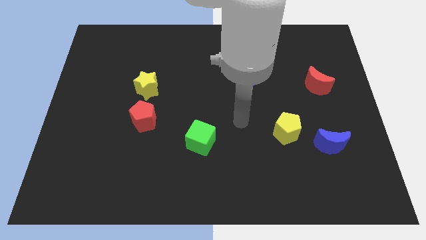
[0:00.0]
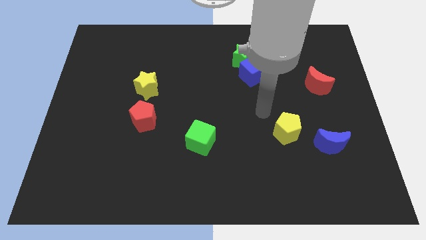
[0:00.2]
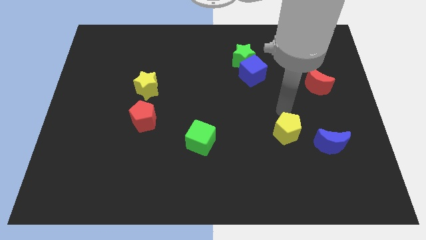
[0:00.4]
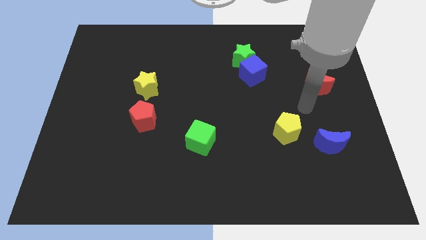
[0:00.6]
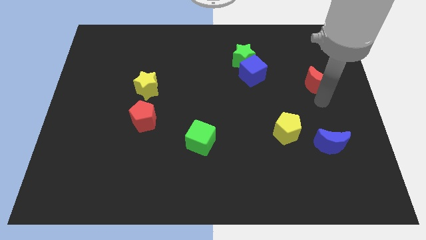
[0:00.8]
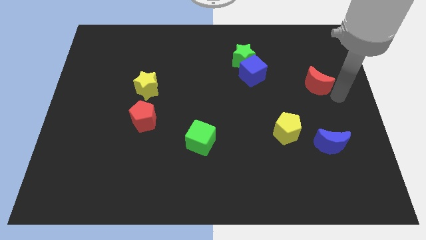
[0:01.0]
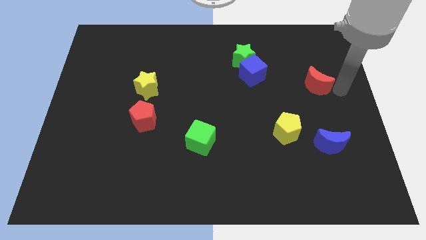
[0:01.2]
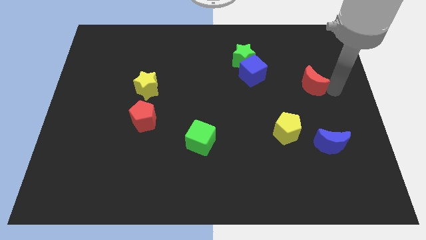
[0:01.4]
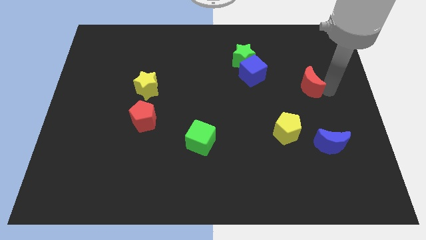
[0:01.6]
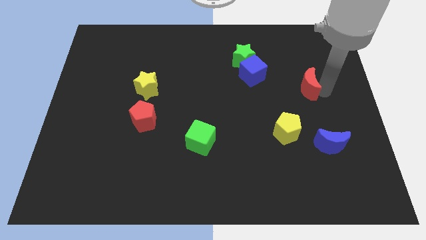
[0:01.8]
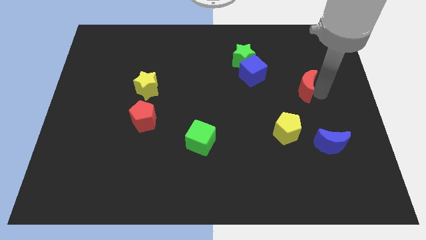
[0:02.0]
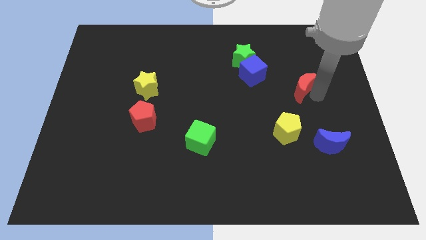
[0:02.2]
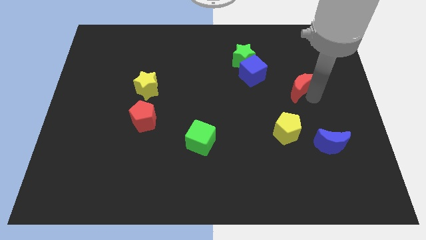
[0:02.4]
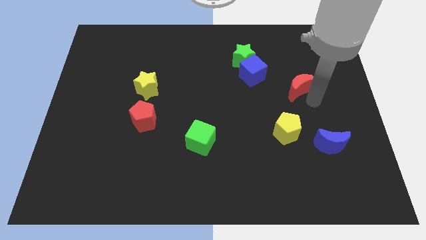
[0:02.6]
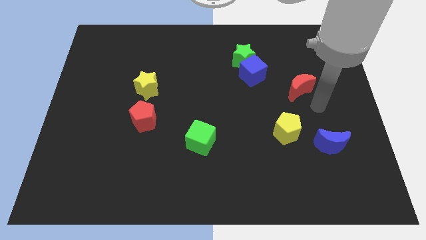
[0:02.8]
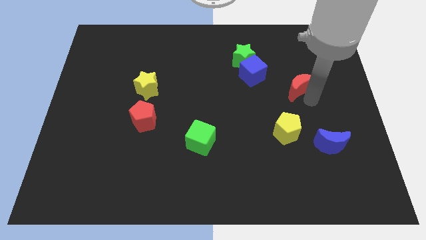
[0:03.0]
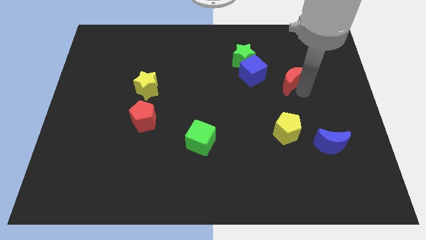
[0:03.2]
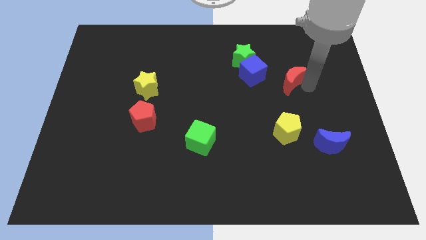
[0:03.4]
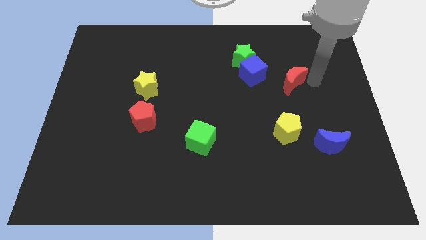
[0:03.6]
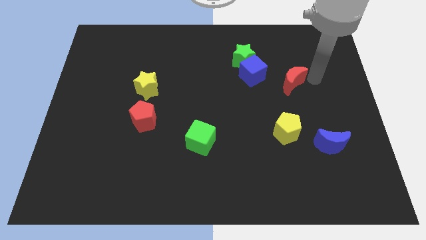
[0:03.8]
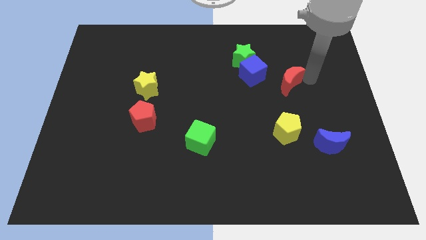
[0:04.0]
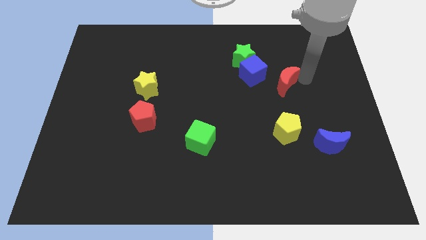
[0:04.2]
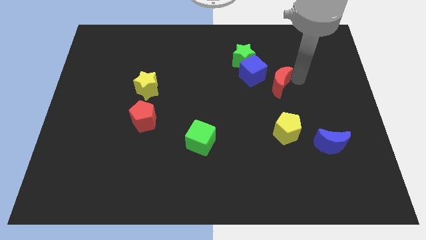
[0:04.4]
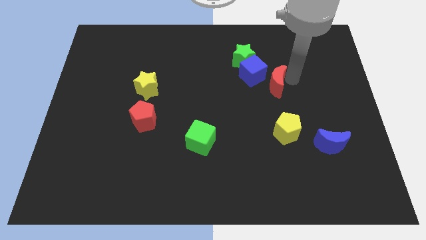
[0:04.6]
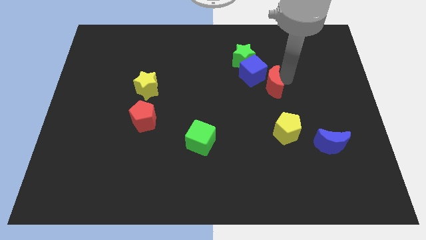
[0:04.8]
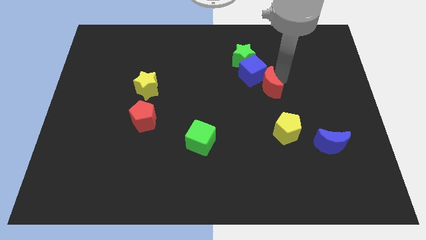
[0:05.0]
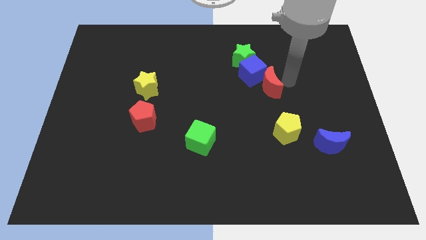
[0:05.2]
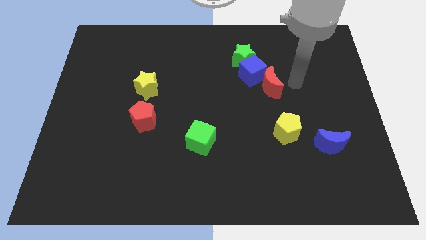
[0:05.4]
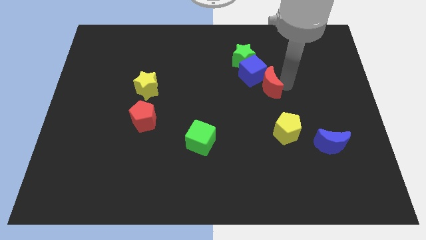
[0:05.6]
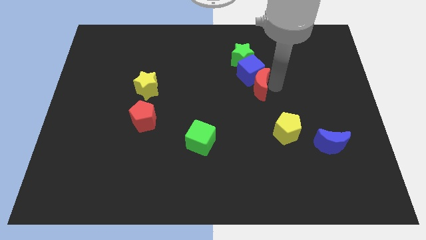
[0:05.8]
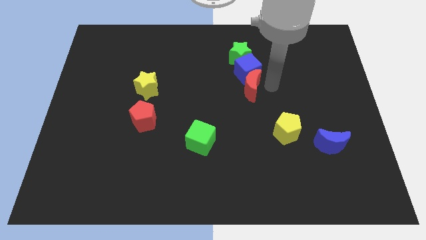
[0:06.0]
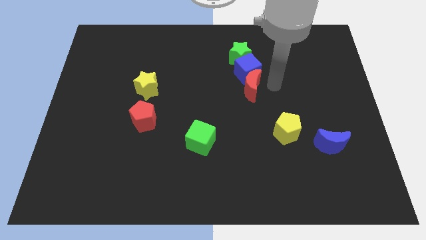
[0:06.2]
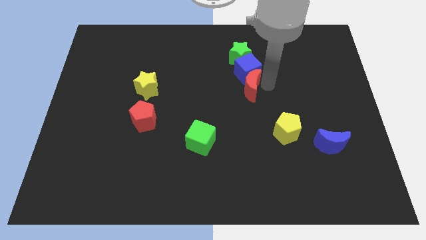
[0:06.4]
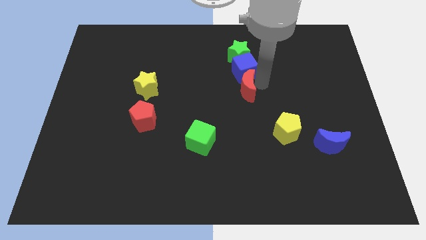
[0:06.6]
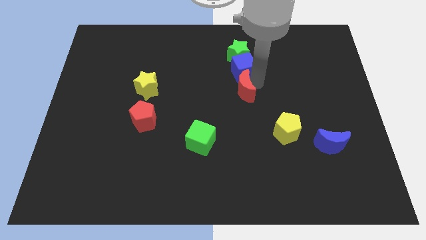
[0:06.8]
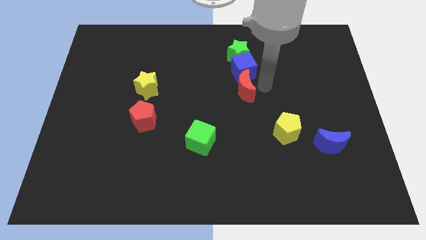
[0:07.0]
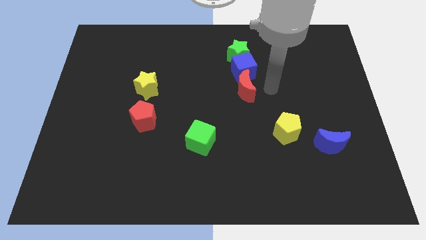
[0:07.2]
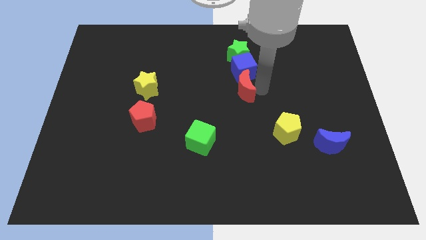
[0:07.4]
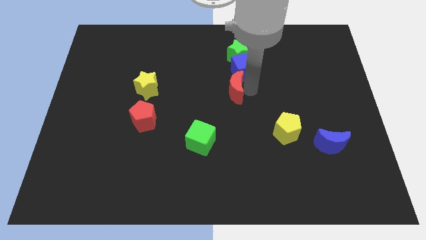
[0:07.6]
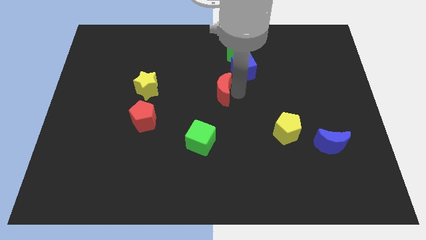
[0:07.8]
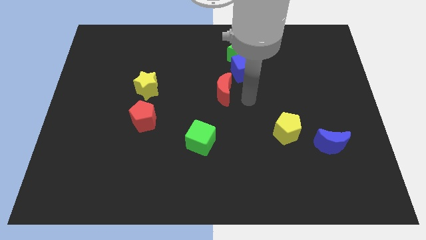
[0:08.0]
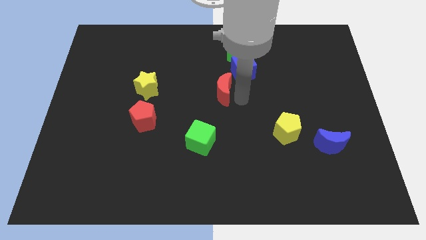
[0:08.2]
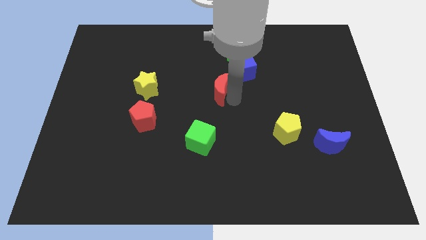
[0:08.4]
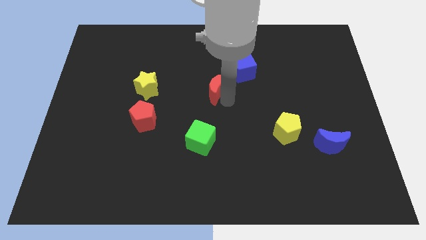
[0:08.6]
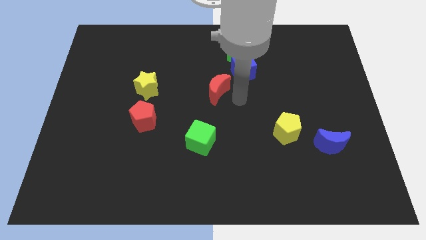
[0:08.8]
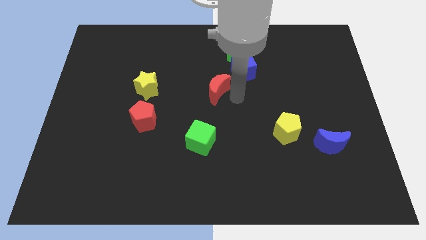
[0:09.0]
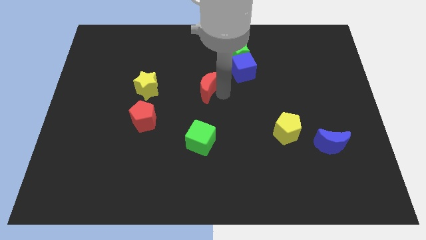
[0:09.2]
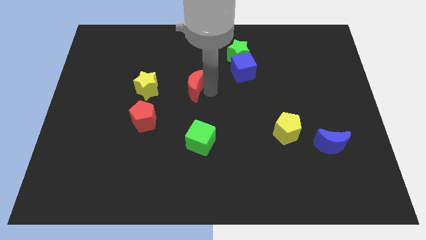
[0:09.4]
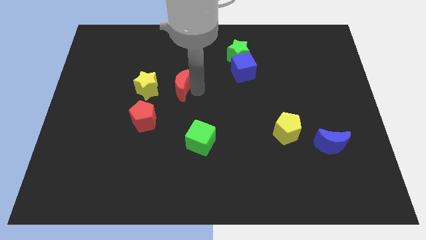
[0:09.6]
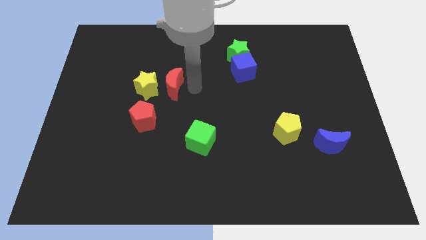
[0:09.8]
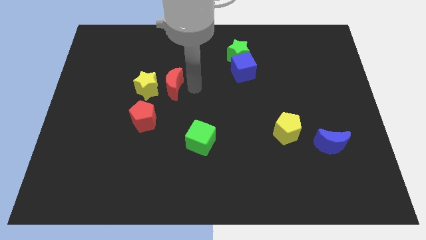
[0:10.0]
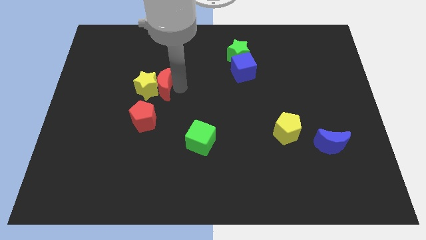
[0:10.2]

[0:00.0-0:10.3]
move the red moon to the top side of the red pentagon

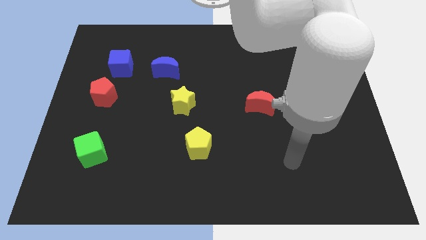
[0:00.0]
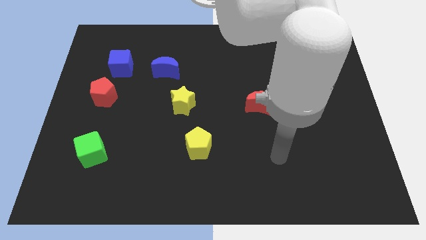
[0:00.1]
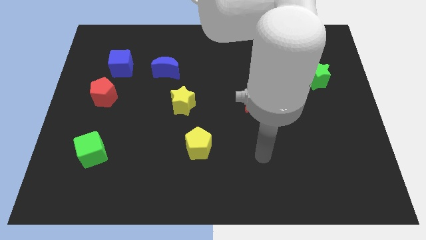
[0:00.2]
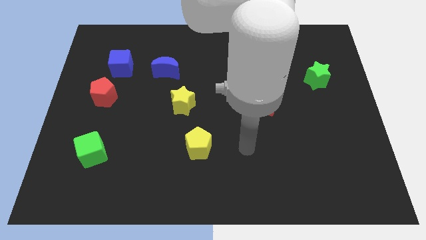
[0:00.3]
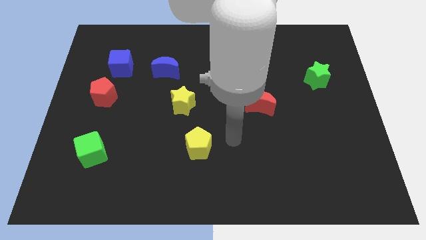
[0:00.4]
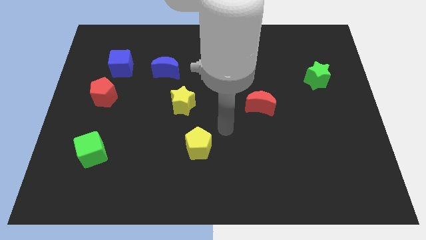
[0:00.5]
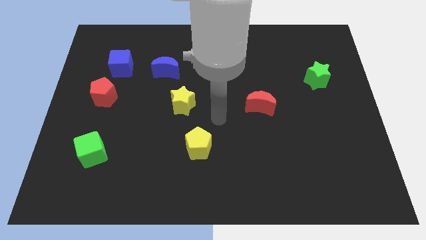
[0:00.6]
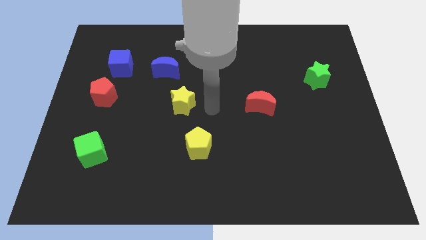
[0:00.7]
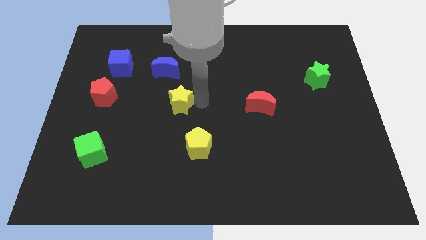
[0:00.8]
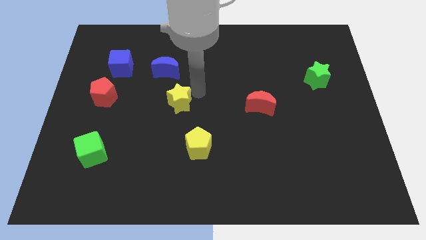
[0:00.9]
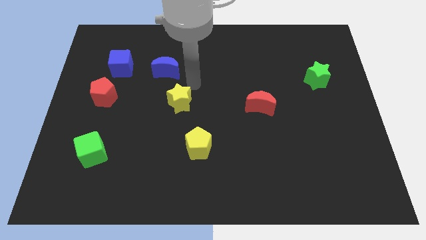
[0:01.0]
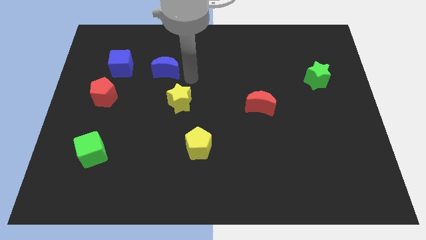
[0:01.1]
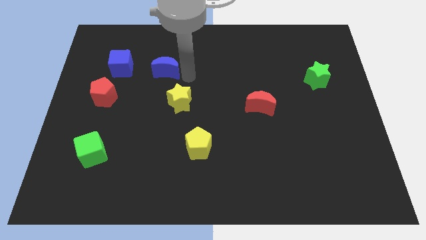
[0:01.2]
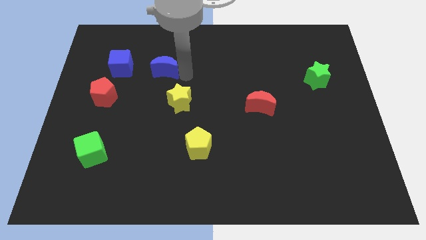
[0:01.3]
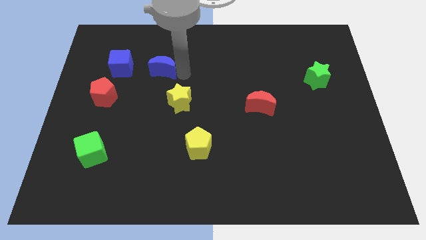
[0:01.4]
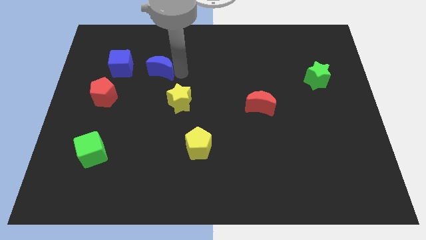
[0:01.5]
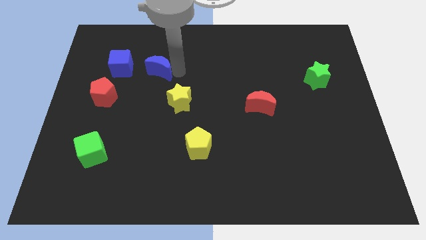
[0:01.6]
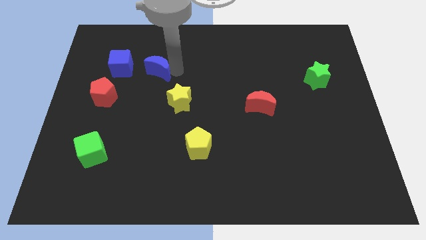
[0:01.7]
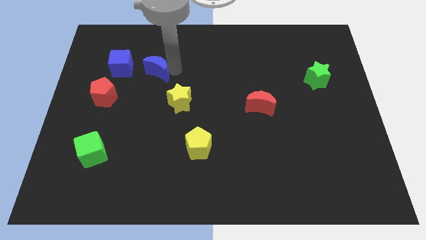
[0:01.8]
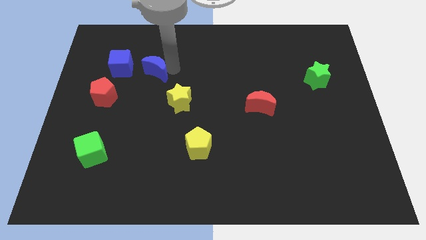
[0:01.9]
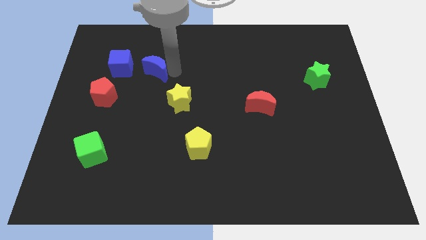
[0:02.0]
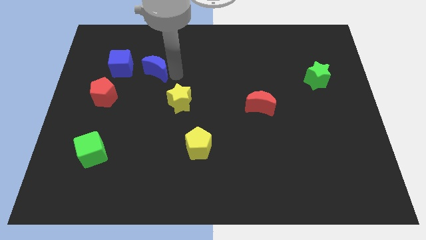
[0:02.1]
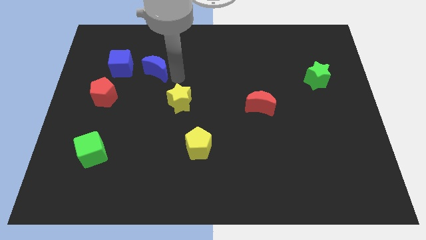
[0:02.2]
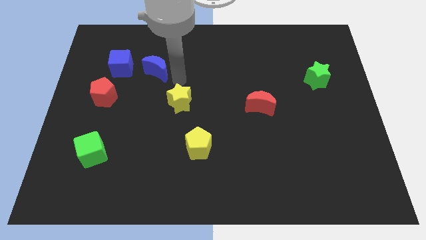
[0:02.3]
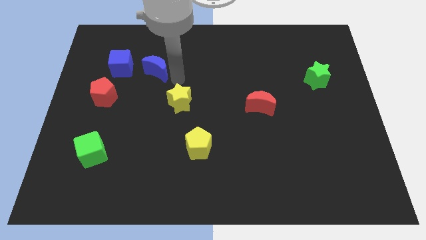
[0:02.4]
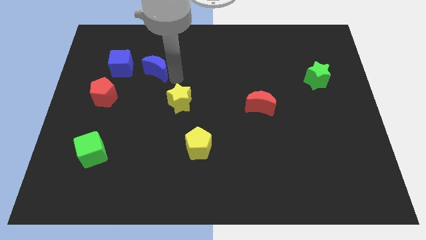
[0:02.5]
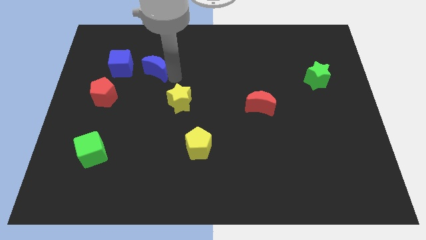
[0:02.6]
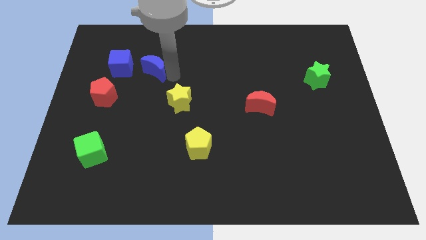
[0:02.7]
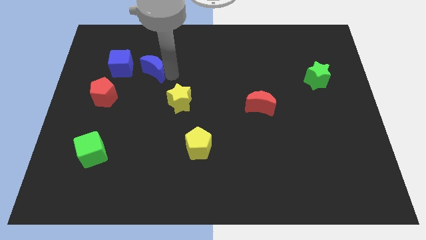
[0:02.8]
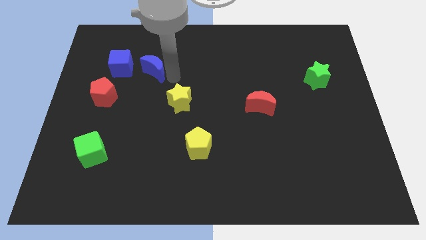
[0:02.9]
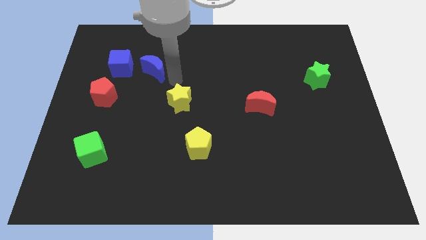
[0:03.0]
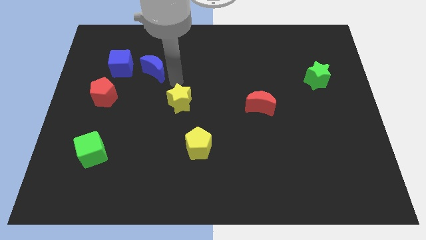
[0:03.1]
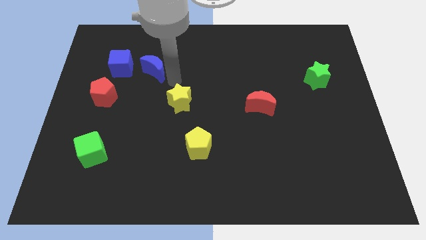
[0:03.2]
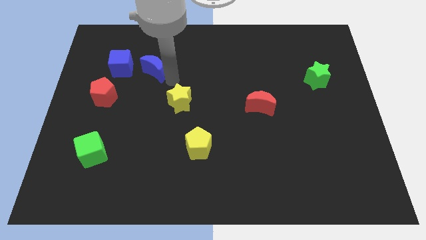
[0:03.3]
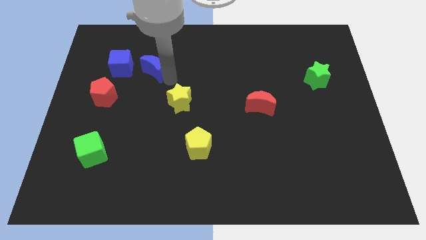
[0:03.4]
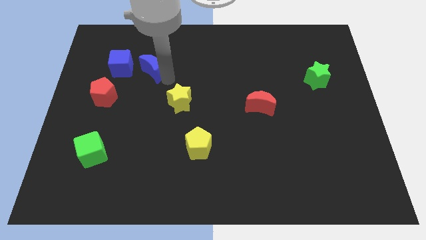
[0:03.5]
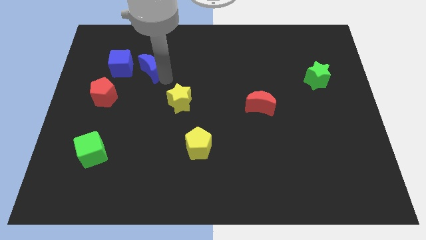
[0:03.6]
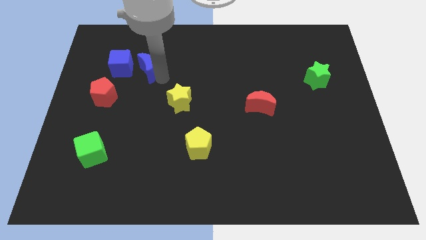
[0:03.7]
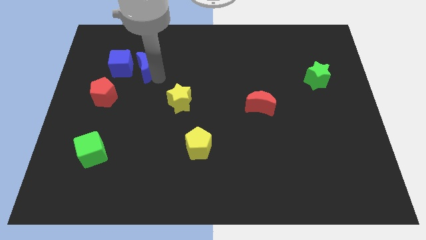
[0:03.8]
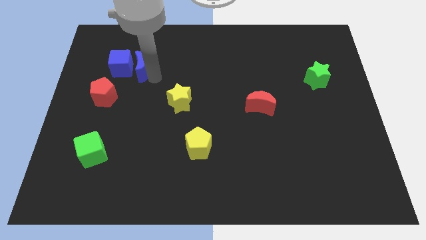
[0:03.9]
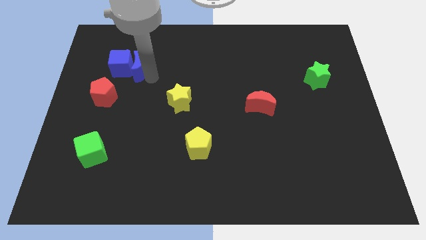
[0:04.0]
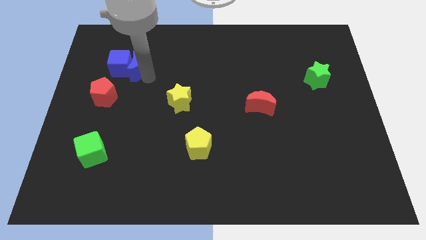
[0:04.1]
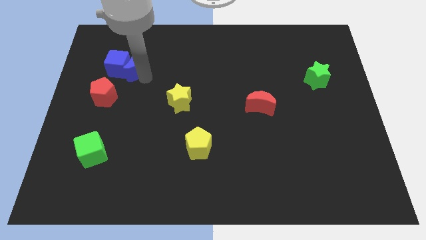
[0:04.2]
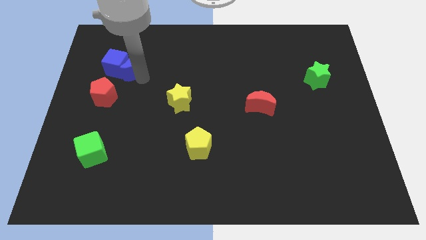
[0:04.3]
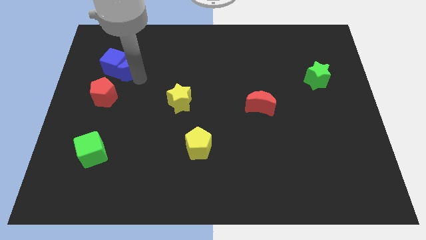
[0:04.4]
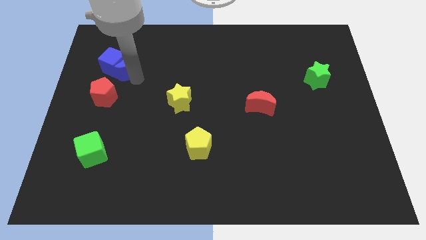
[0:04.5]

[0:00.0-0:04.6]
push the blue moon above the red pentagon
